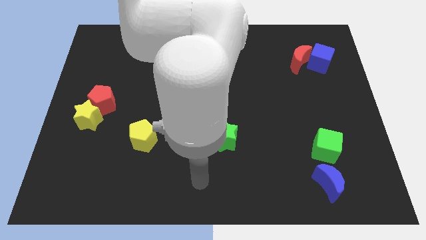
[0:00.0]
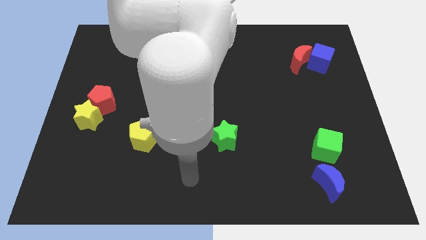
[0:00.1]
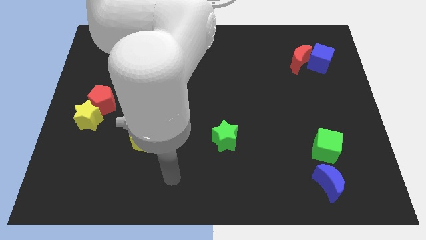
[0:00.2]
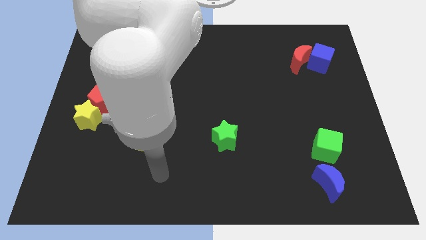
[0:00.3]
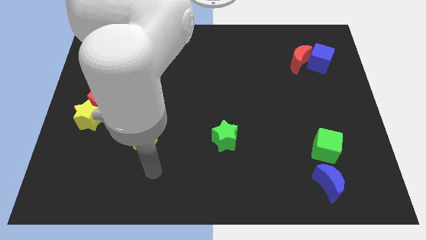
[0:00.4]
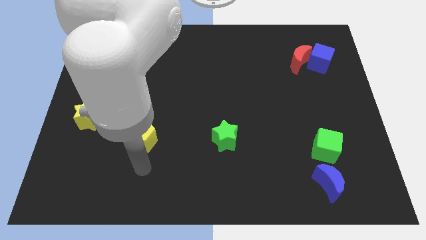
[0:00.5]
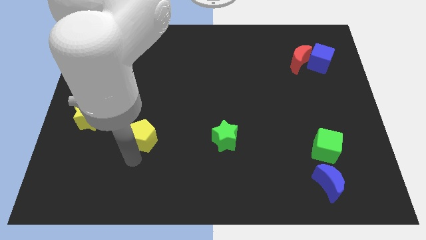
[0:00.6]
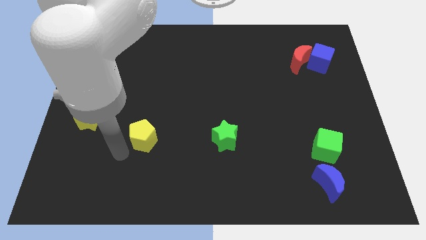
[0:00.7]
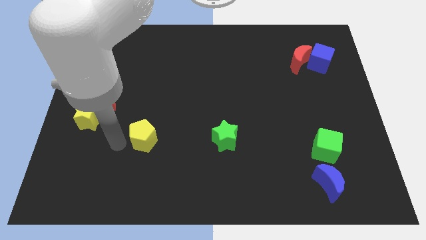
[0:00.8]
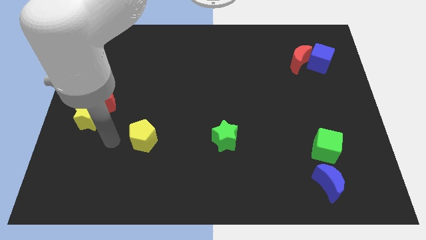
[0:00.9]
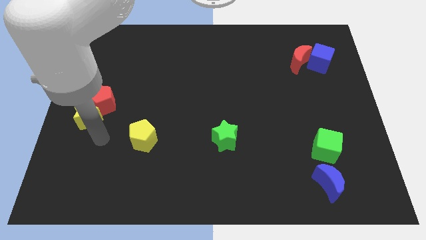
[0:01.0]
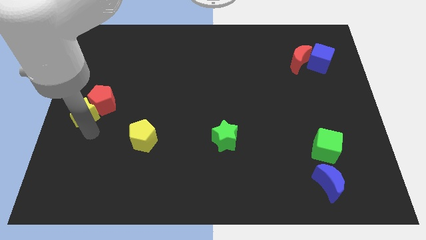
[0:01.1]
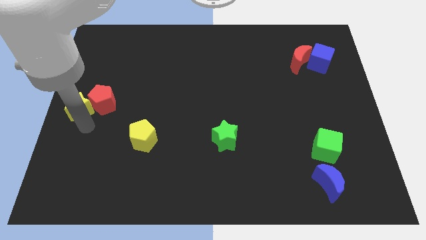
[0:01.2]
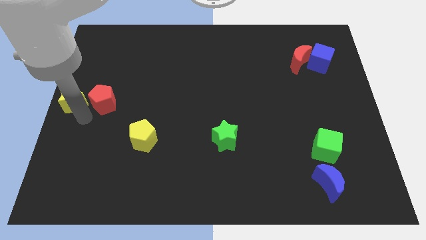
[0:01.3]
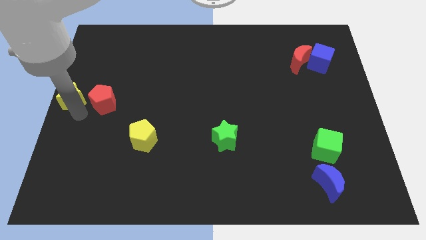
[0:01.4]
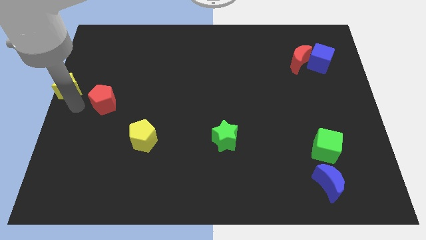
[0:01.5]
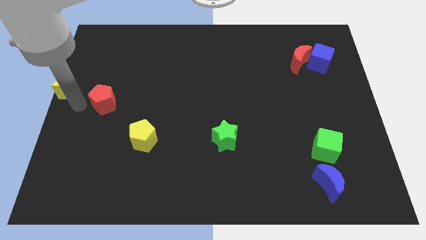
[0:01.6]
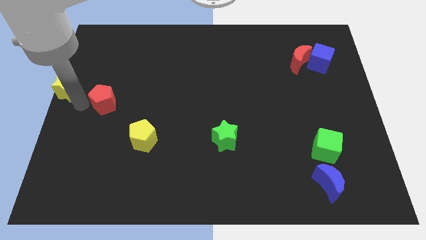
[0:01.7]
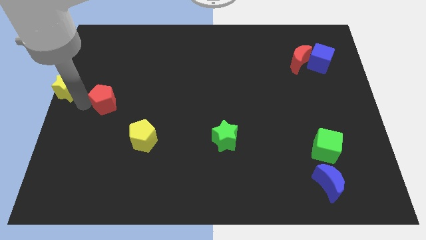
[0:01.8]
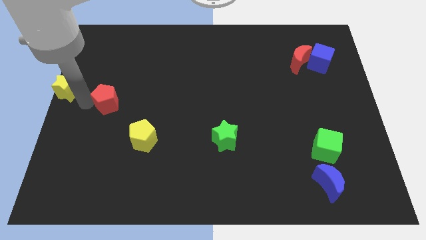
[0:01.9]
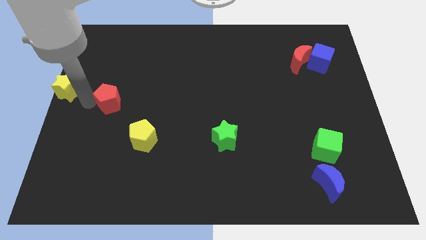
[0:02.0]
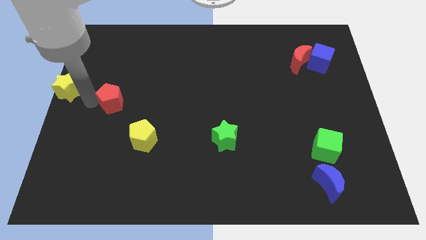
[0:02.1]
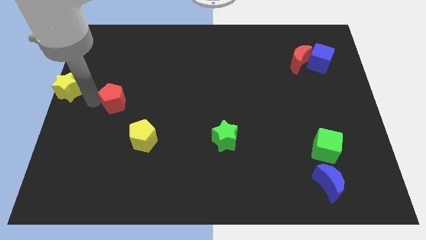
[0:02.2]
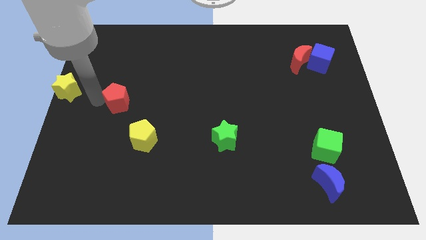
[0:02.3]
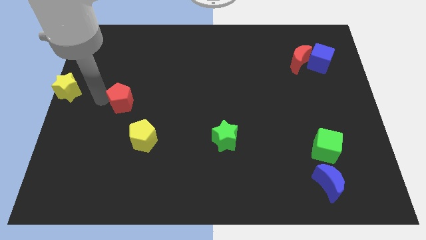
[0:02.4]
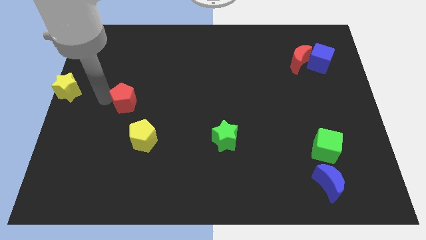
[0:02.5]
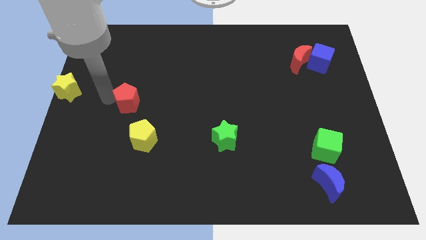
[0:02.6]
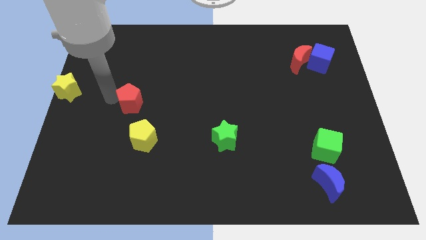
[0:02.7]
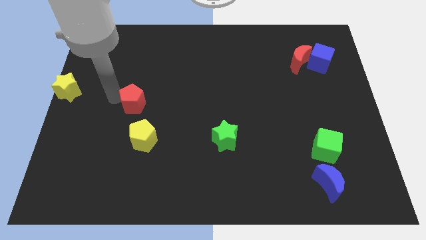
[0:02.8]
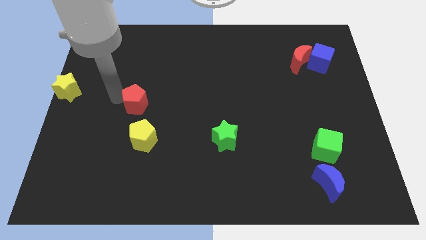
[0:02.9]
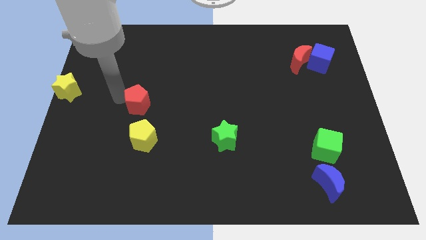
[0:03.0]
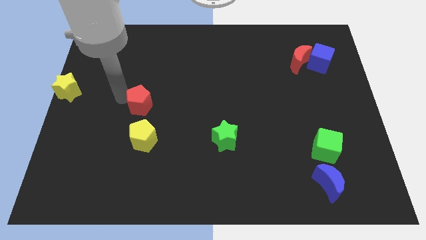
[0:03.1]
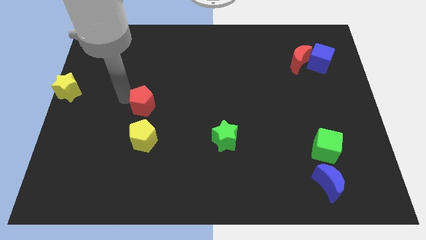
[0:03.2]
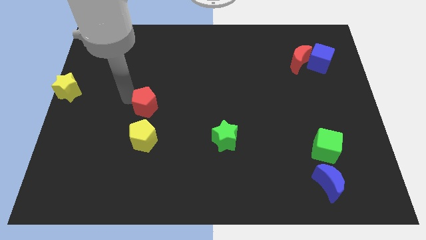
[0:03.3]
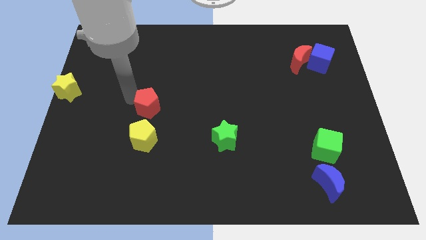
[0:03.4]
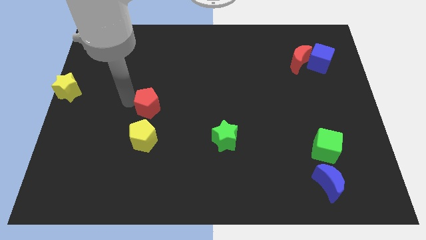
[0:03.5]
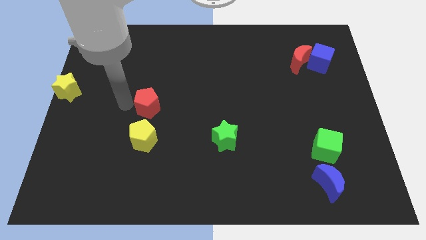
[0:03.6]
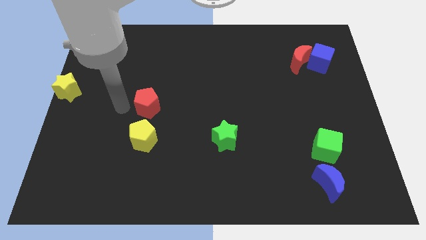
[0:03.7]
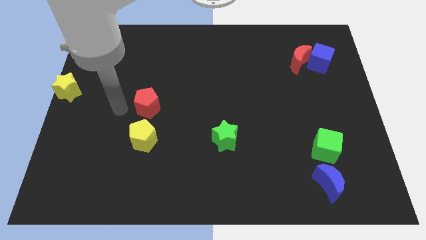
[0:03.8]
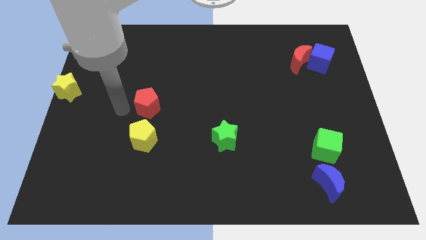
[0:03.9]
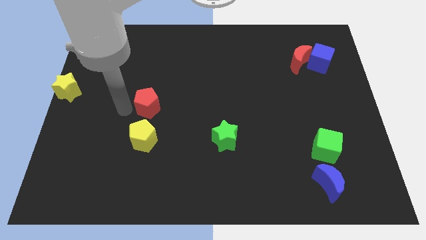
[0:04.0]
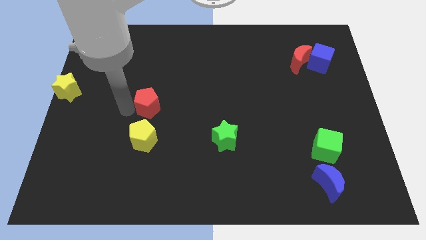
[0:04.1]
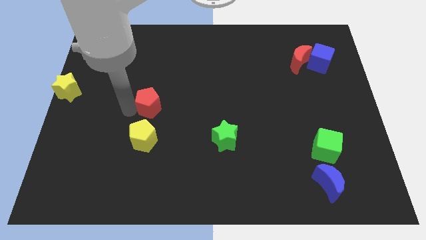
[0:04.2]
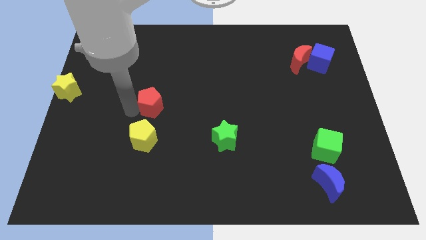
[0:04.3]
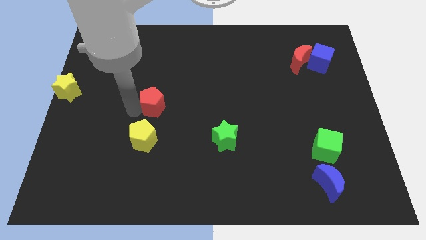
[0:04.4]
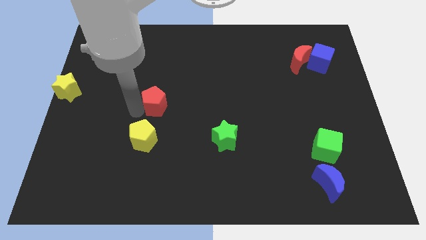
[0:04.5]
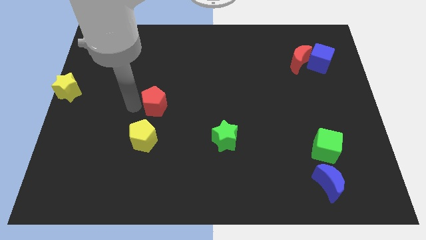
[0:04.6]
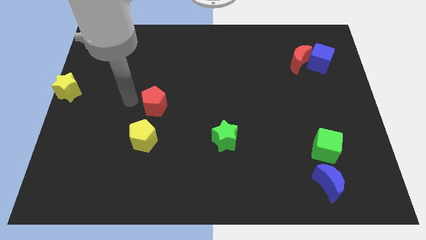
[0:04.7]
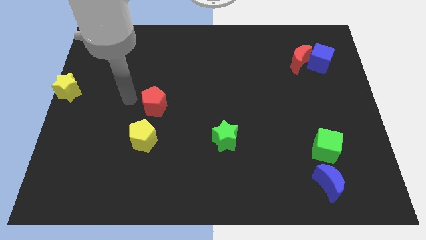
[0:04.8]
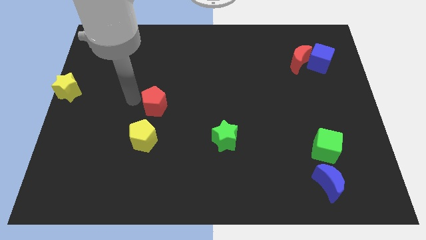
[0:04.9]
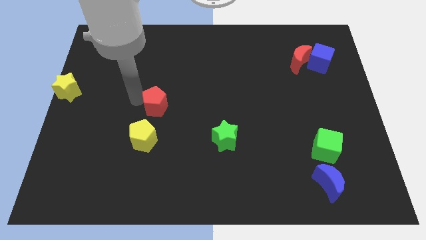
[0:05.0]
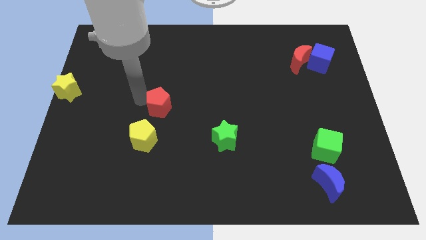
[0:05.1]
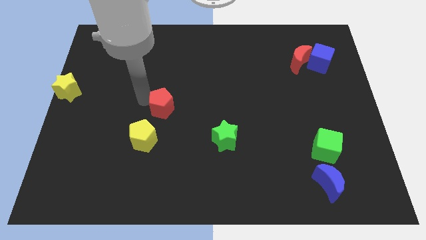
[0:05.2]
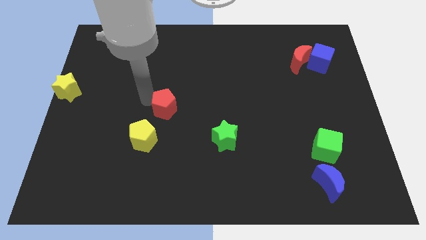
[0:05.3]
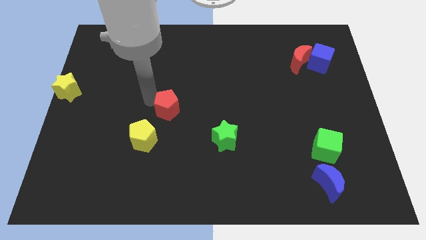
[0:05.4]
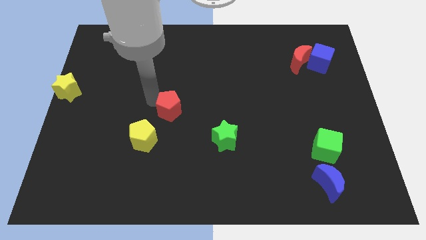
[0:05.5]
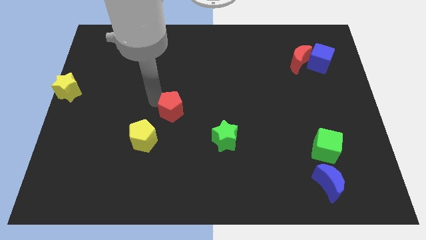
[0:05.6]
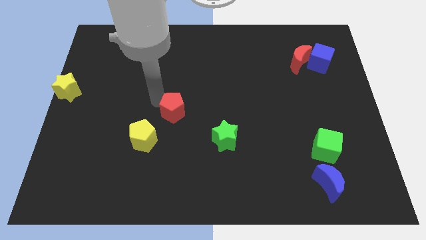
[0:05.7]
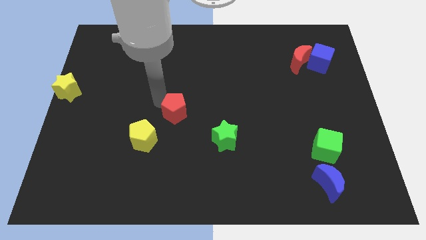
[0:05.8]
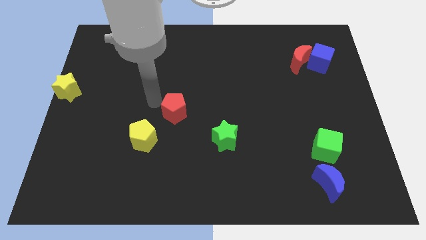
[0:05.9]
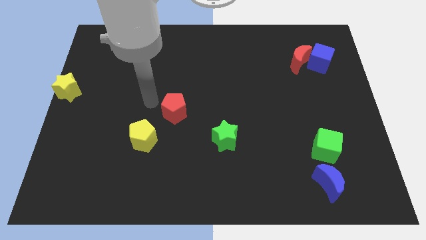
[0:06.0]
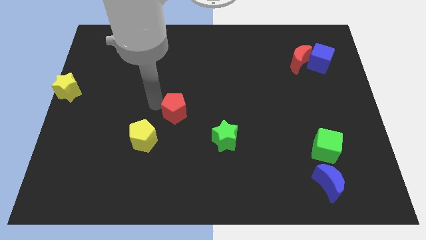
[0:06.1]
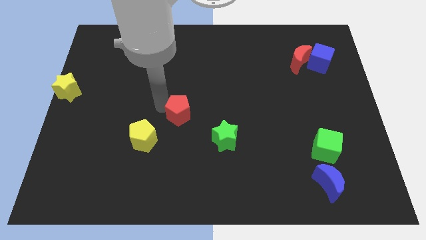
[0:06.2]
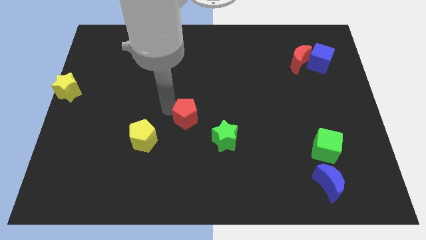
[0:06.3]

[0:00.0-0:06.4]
put the red pentagon to the top left of the green star
